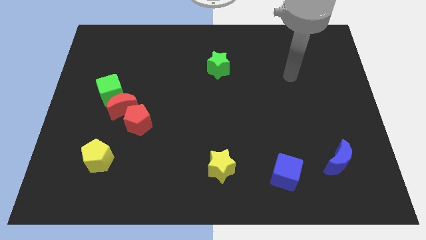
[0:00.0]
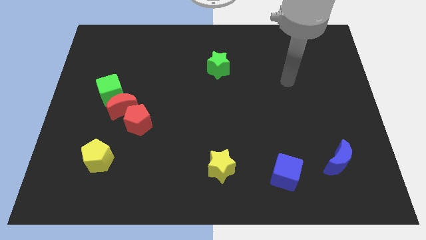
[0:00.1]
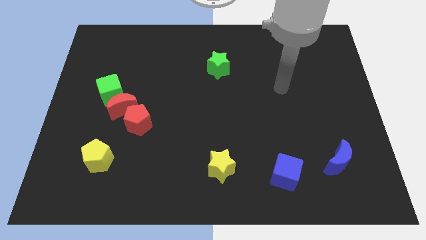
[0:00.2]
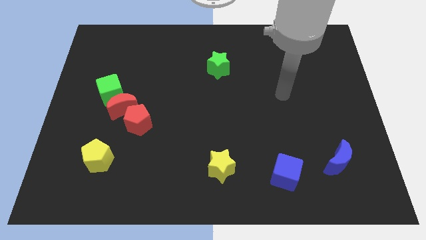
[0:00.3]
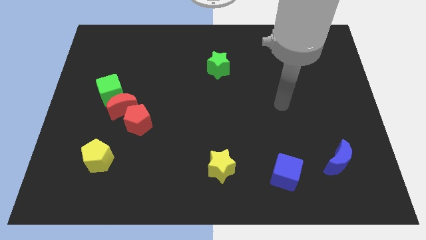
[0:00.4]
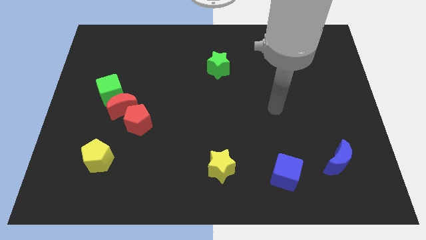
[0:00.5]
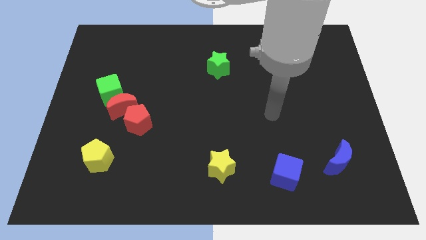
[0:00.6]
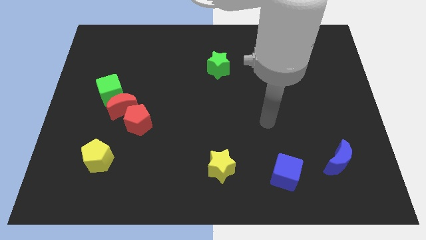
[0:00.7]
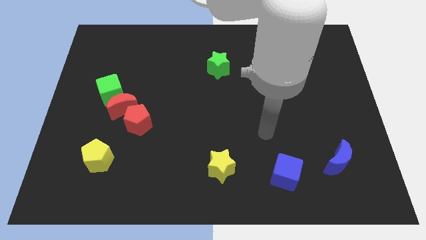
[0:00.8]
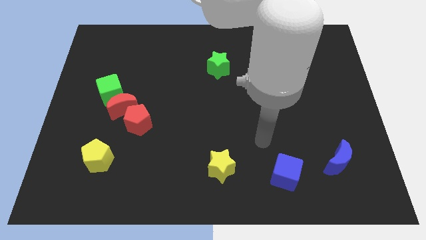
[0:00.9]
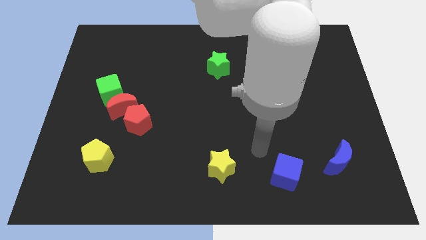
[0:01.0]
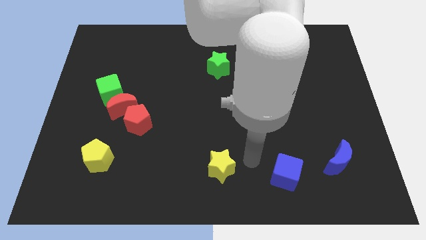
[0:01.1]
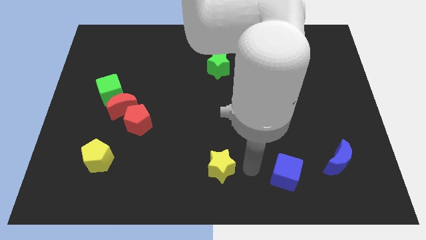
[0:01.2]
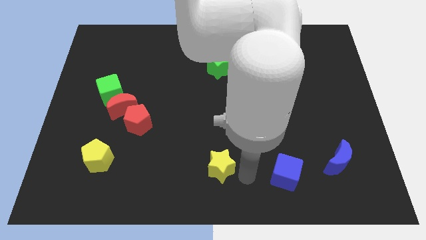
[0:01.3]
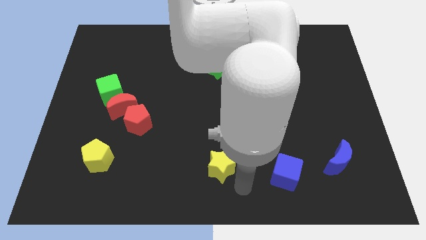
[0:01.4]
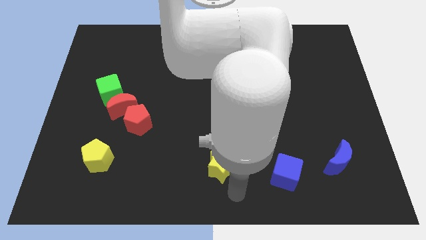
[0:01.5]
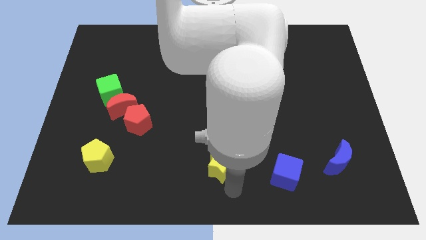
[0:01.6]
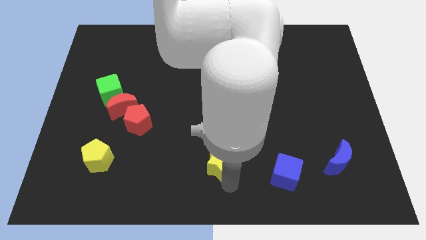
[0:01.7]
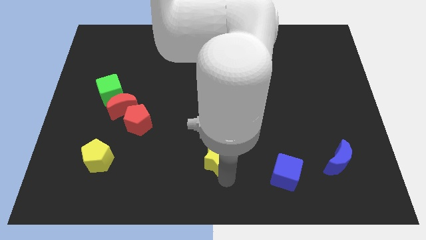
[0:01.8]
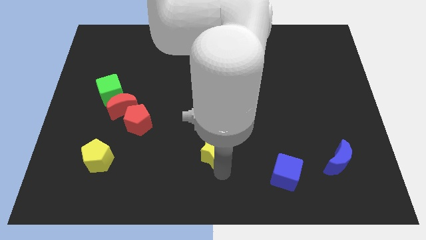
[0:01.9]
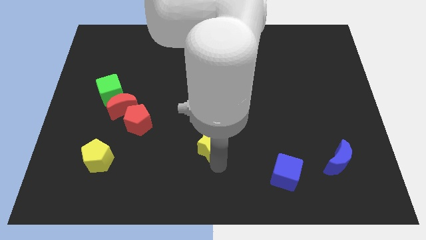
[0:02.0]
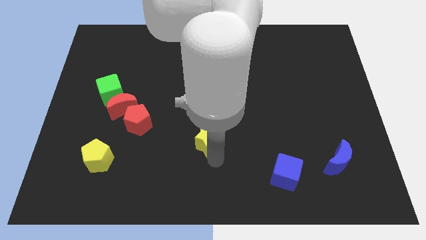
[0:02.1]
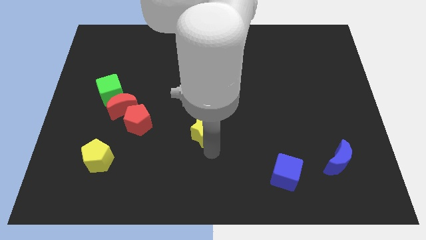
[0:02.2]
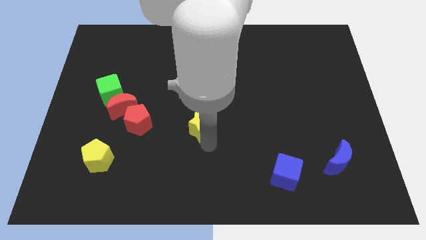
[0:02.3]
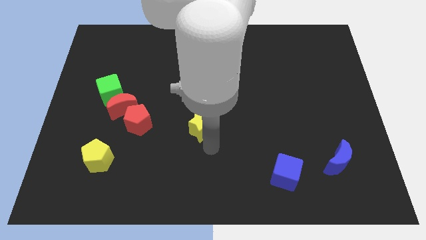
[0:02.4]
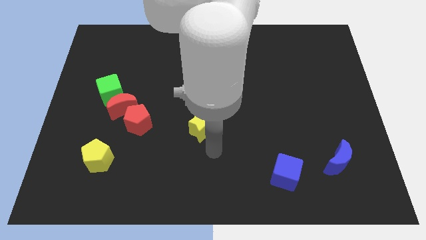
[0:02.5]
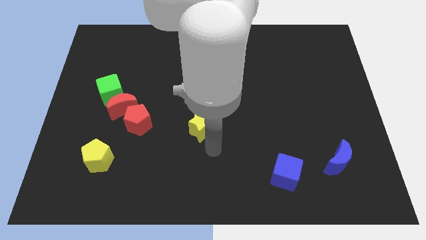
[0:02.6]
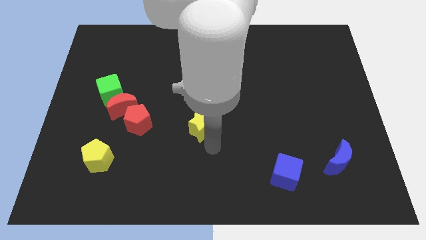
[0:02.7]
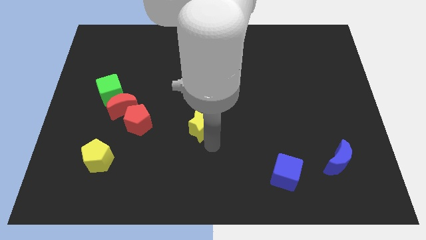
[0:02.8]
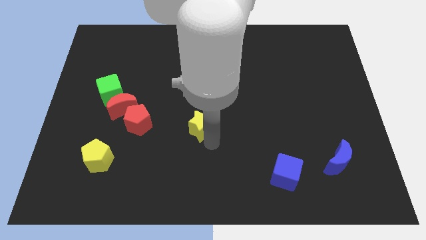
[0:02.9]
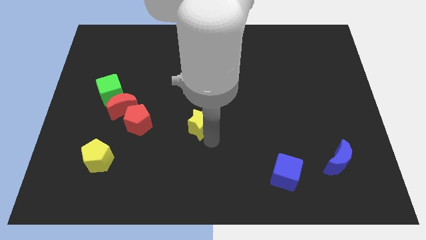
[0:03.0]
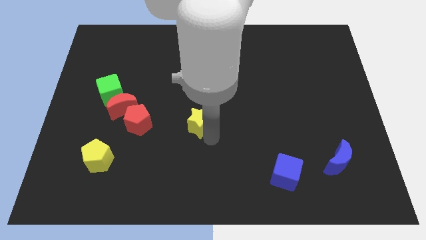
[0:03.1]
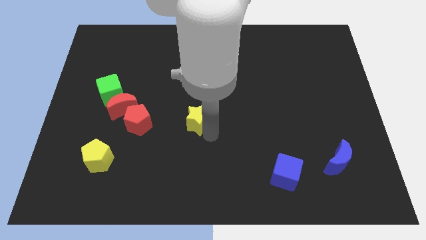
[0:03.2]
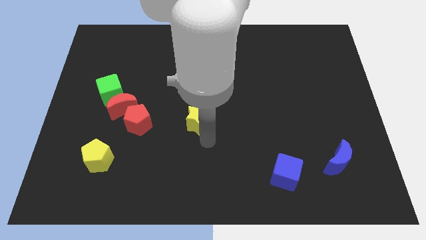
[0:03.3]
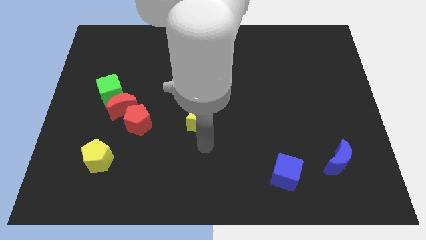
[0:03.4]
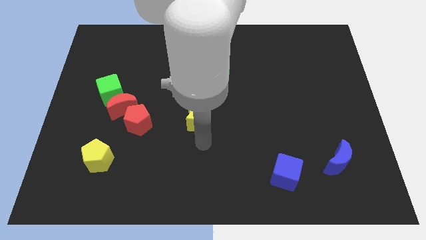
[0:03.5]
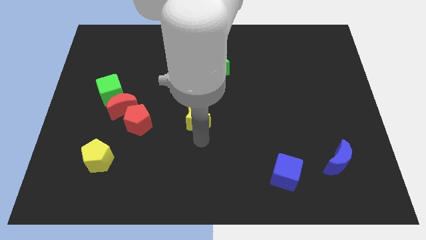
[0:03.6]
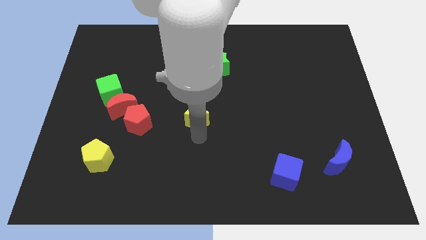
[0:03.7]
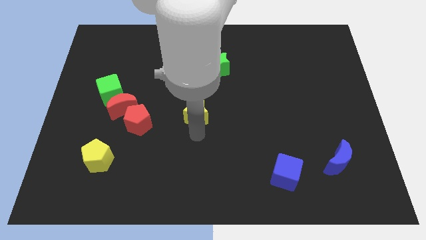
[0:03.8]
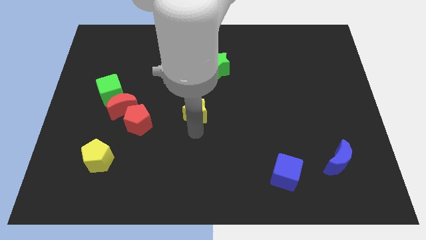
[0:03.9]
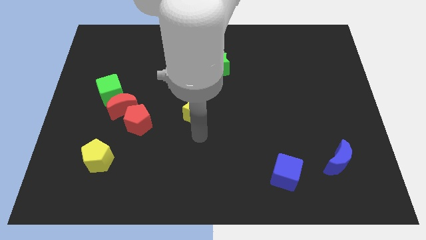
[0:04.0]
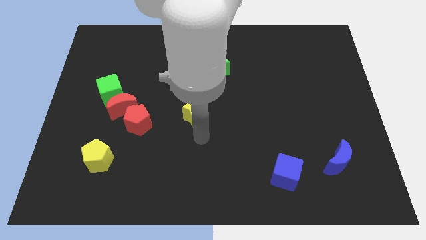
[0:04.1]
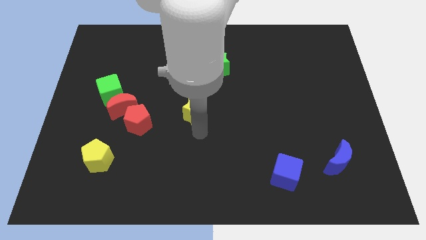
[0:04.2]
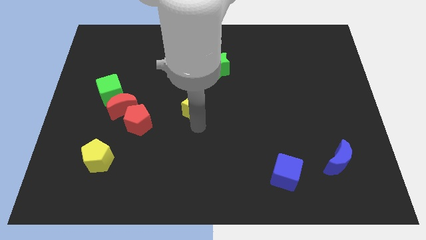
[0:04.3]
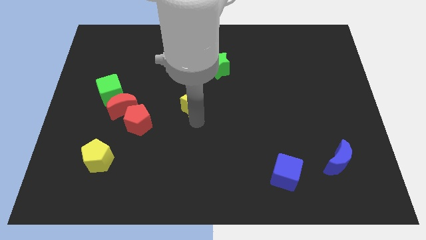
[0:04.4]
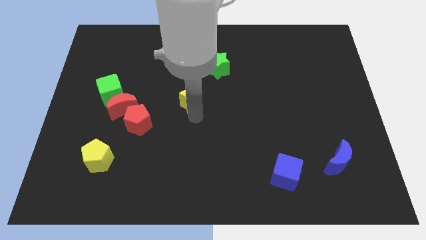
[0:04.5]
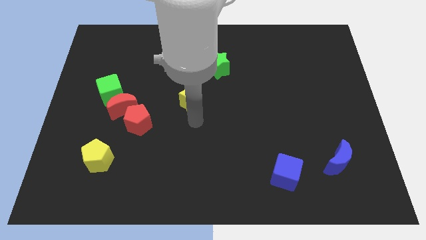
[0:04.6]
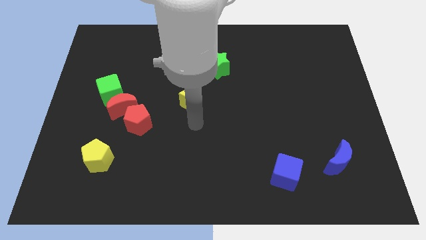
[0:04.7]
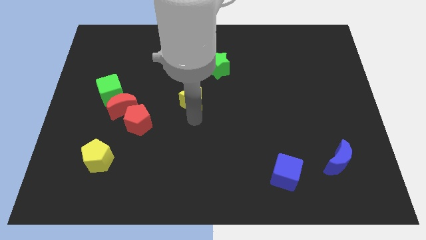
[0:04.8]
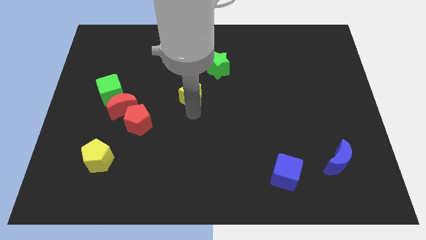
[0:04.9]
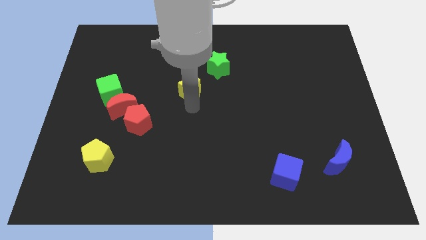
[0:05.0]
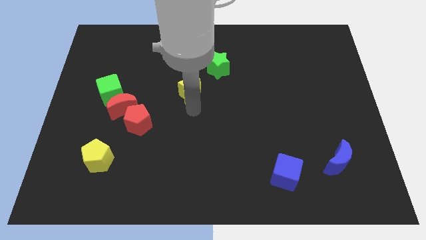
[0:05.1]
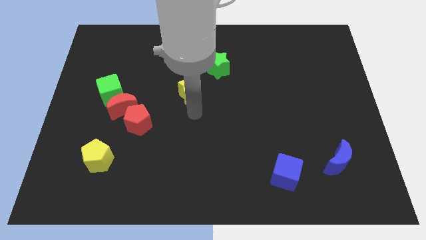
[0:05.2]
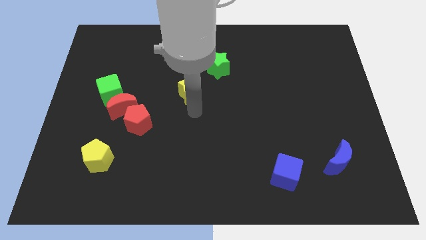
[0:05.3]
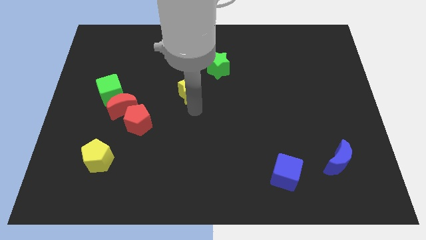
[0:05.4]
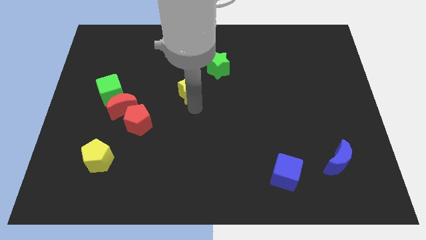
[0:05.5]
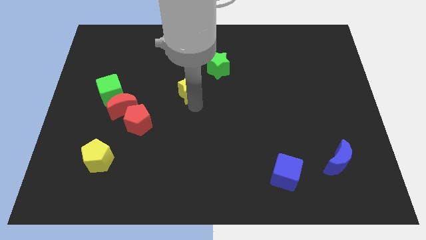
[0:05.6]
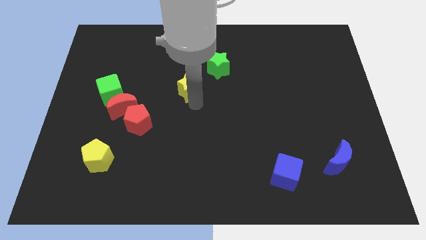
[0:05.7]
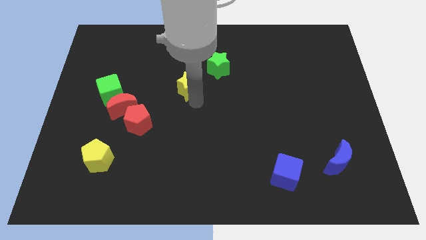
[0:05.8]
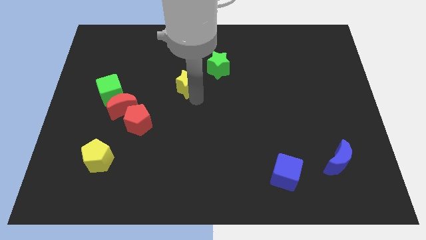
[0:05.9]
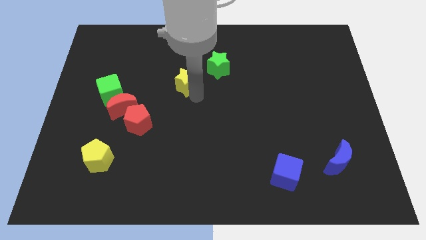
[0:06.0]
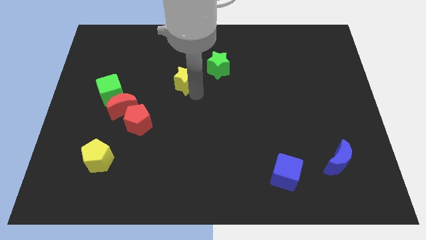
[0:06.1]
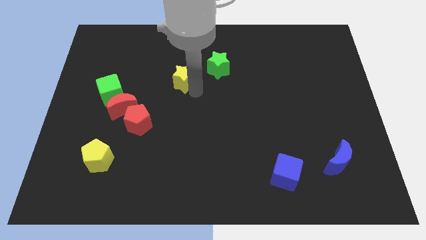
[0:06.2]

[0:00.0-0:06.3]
push the yellow star just left of the green star

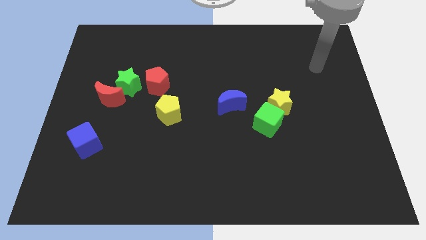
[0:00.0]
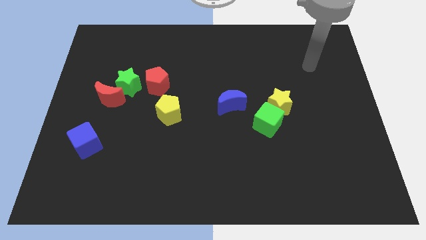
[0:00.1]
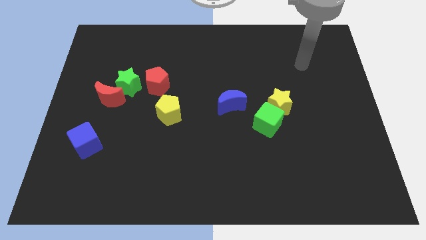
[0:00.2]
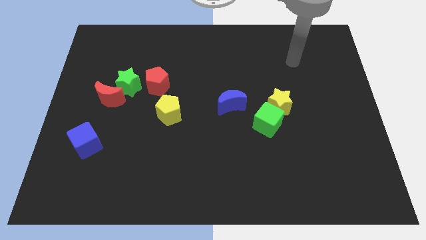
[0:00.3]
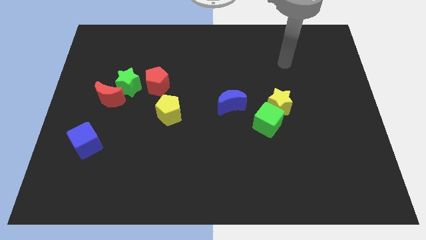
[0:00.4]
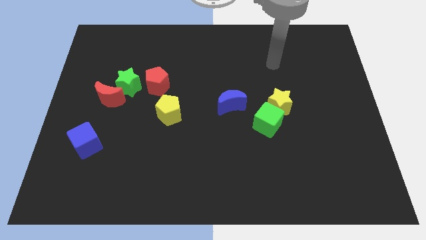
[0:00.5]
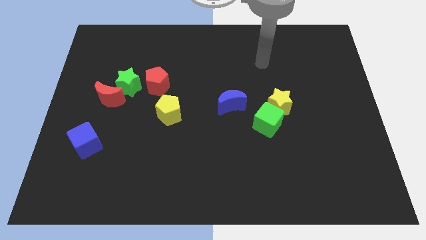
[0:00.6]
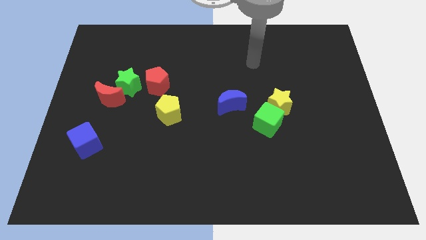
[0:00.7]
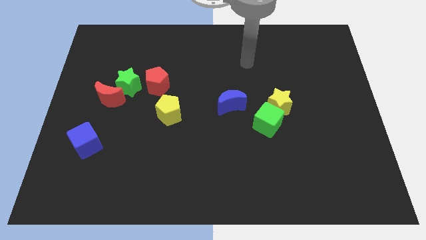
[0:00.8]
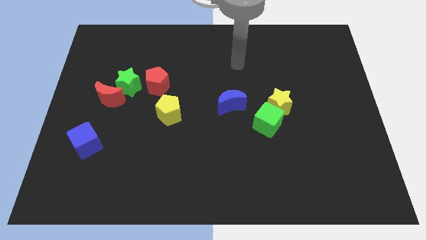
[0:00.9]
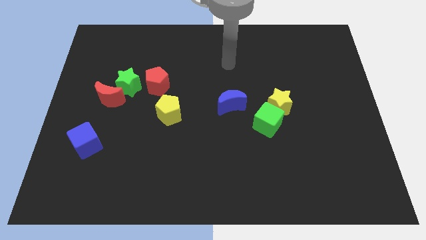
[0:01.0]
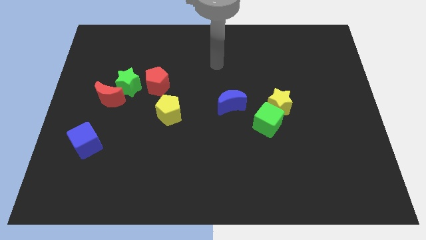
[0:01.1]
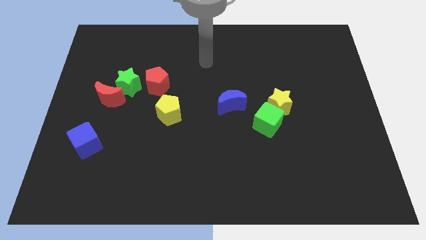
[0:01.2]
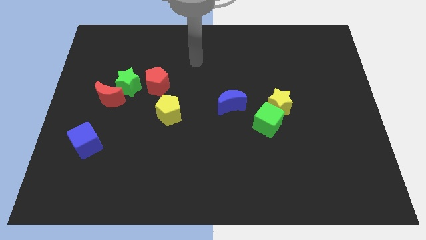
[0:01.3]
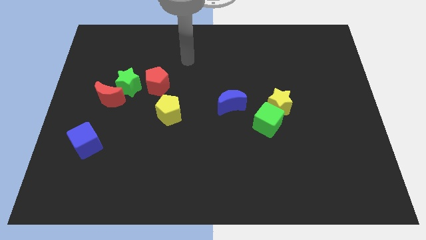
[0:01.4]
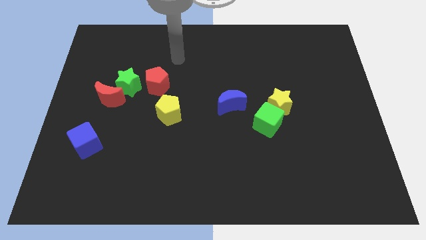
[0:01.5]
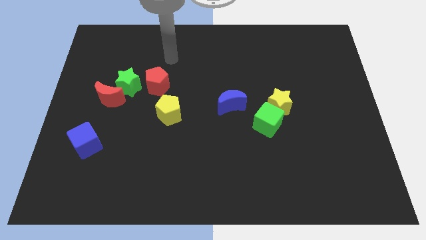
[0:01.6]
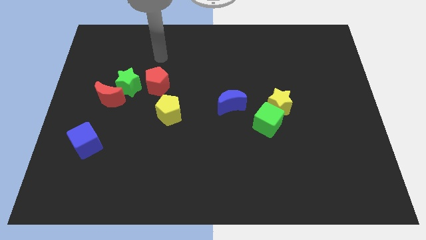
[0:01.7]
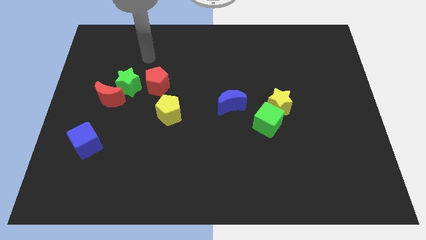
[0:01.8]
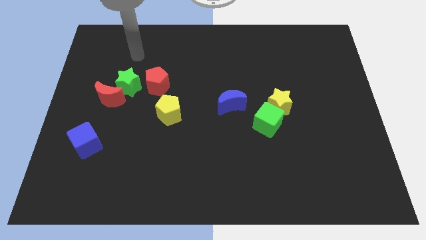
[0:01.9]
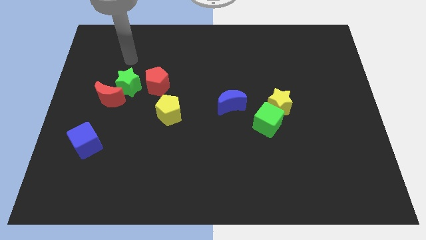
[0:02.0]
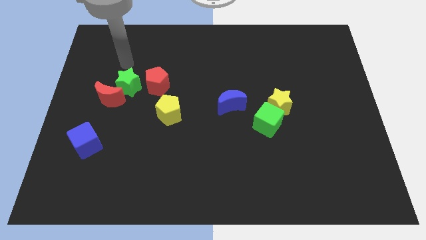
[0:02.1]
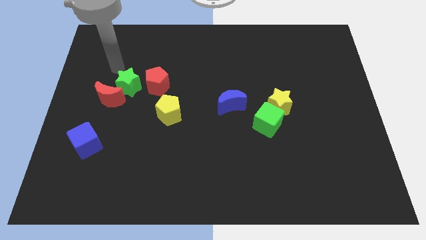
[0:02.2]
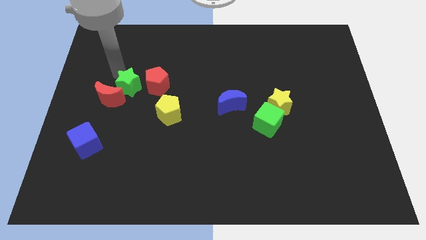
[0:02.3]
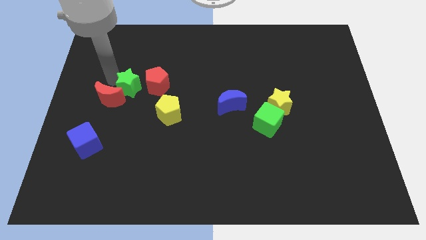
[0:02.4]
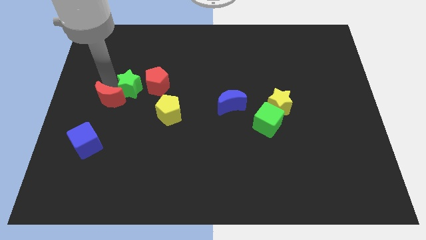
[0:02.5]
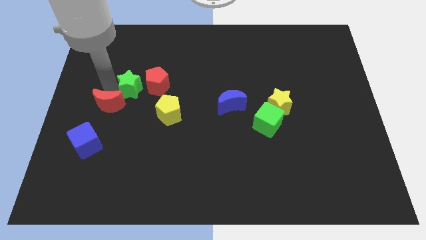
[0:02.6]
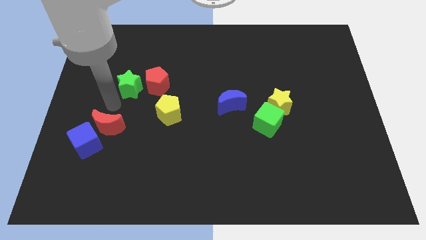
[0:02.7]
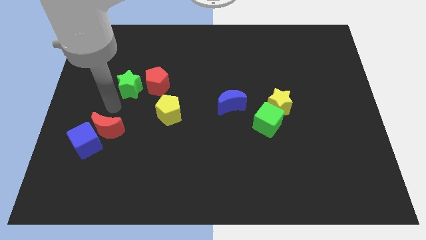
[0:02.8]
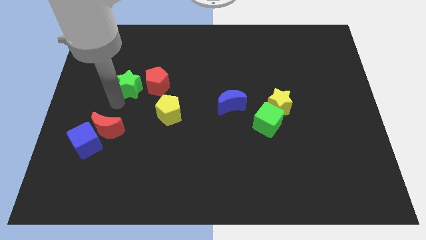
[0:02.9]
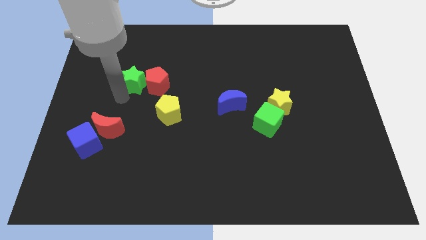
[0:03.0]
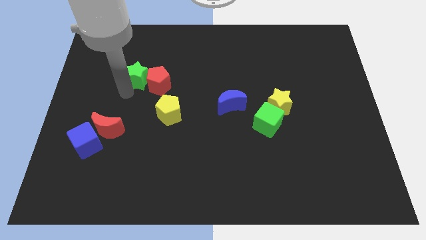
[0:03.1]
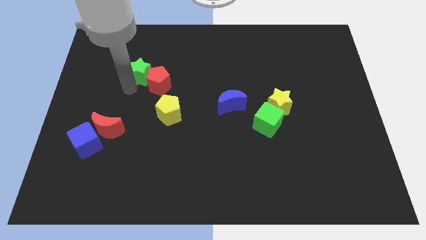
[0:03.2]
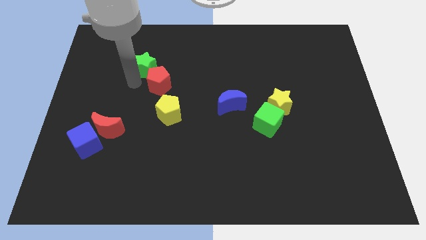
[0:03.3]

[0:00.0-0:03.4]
put the green star to the top of the red pentagon
